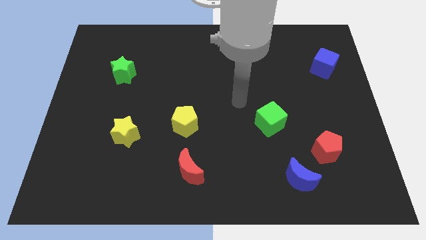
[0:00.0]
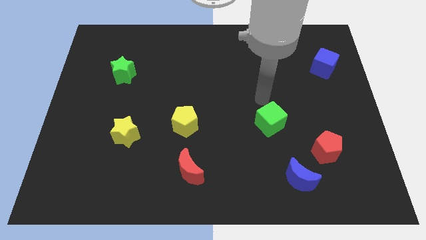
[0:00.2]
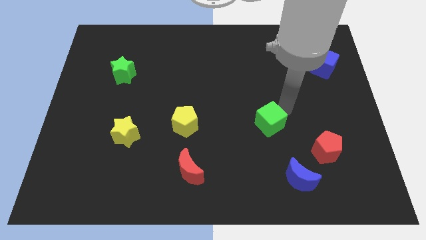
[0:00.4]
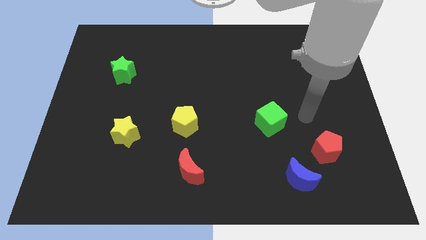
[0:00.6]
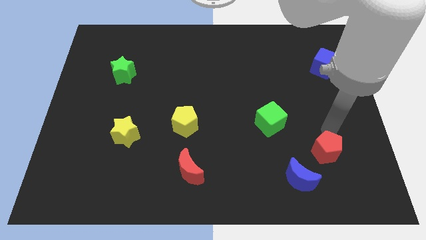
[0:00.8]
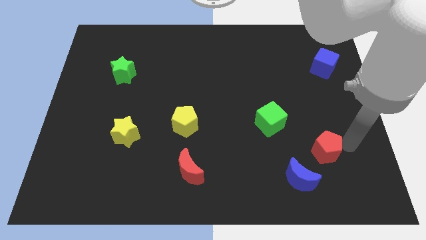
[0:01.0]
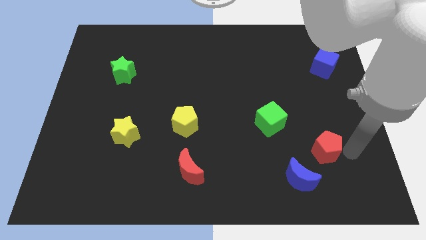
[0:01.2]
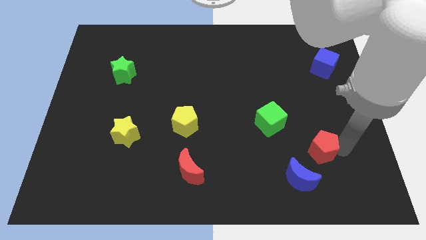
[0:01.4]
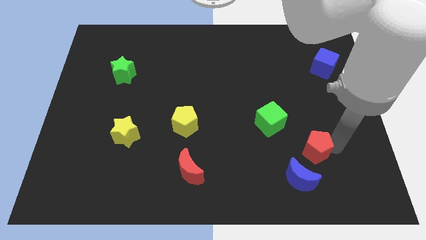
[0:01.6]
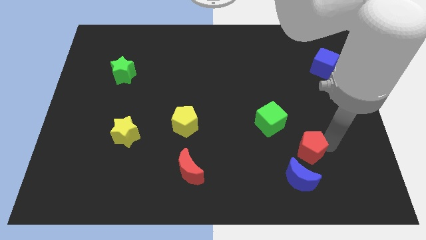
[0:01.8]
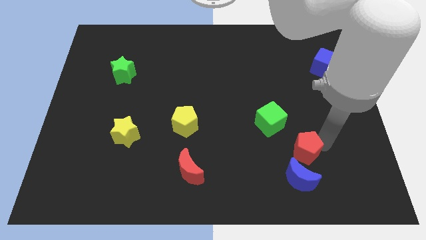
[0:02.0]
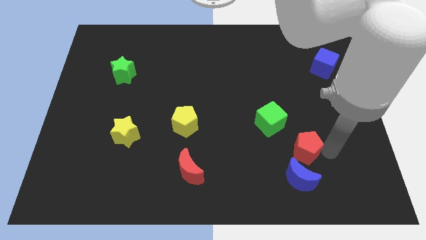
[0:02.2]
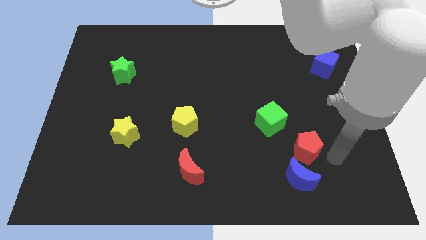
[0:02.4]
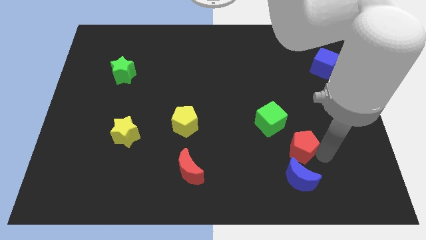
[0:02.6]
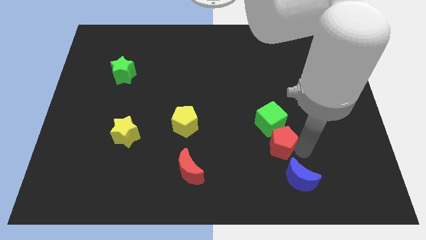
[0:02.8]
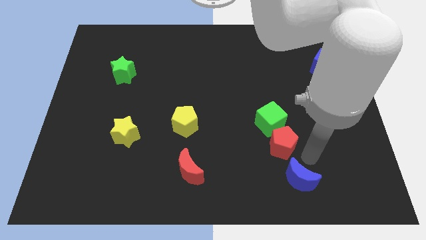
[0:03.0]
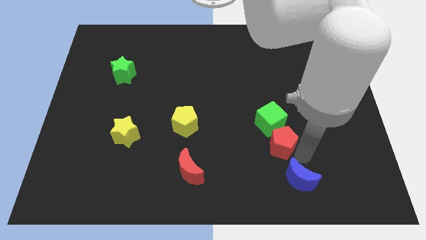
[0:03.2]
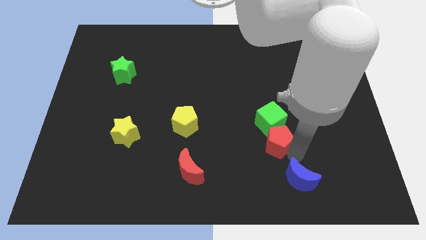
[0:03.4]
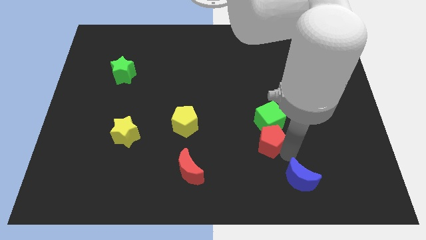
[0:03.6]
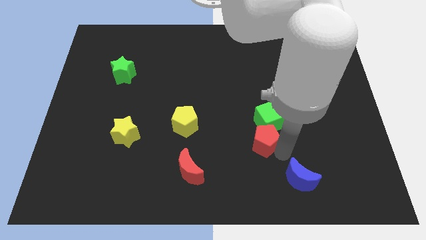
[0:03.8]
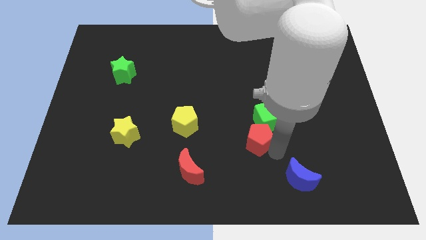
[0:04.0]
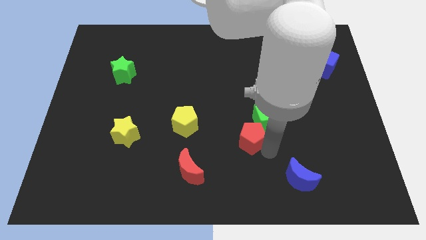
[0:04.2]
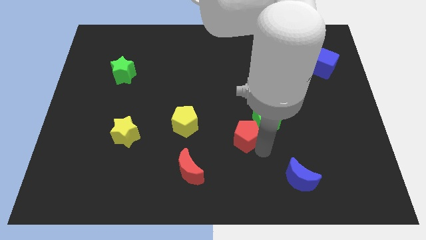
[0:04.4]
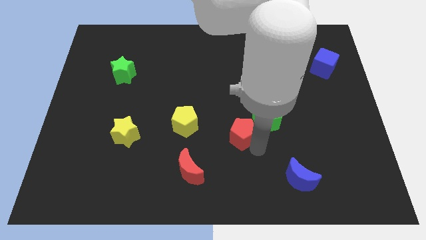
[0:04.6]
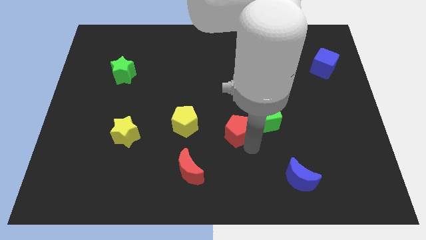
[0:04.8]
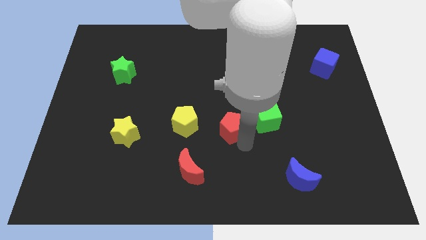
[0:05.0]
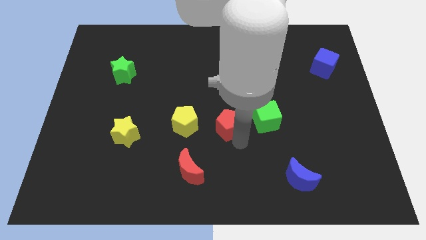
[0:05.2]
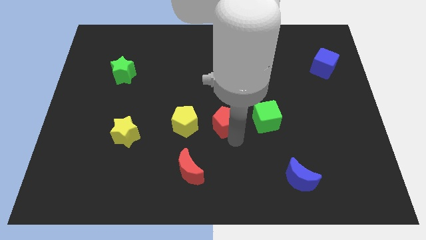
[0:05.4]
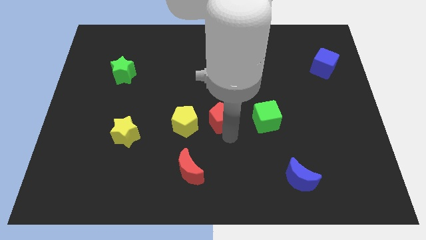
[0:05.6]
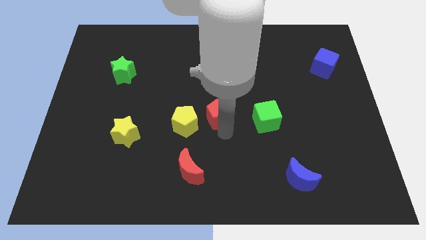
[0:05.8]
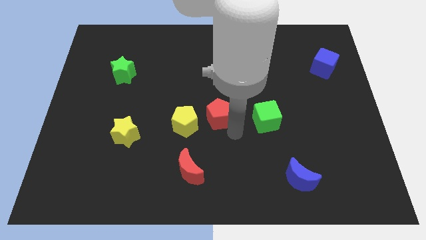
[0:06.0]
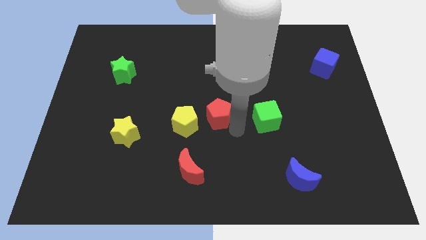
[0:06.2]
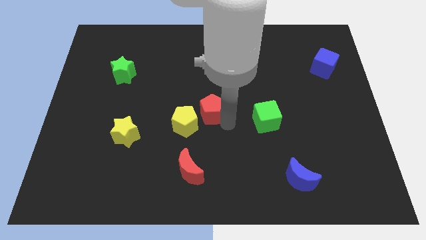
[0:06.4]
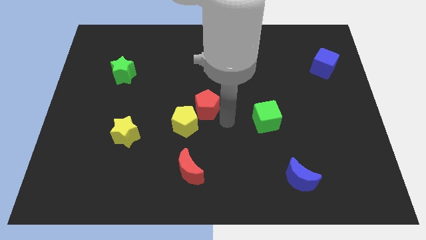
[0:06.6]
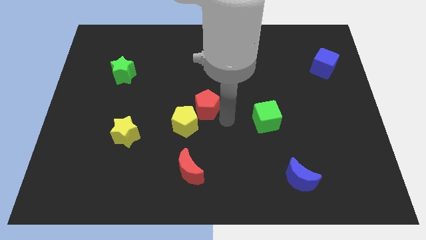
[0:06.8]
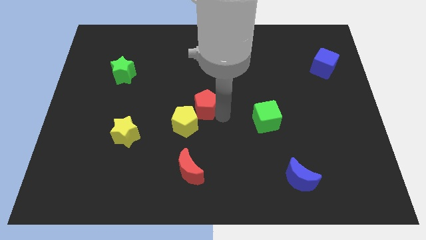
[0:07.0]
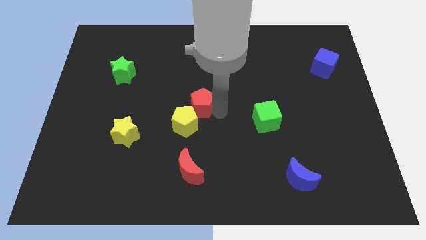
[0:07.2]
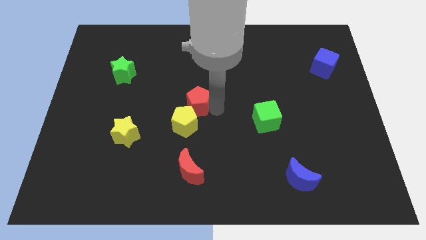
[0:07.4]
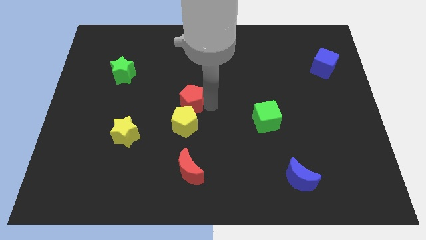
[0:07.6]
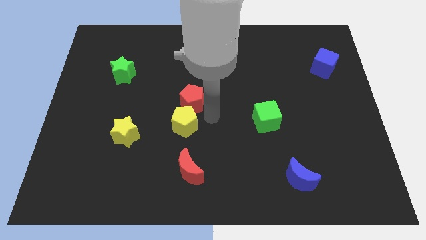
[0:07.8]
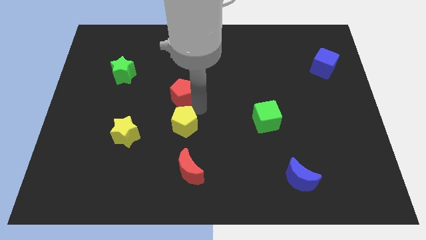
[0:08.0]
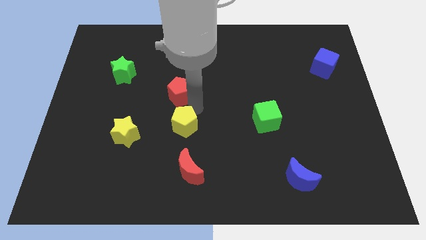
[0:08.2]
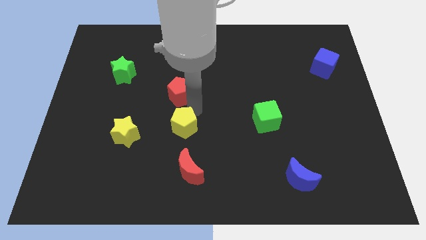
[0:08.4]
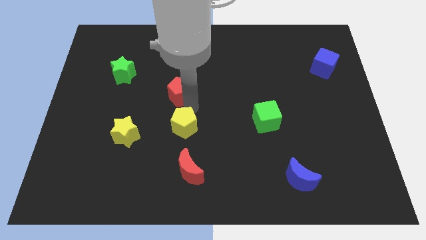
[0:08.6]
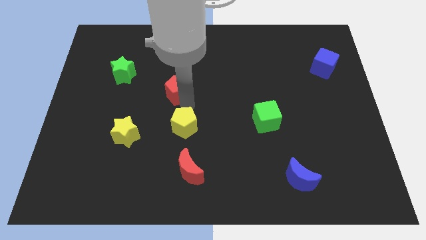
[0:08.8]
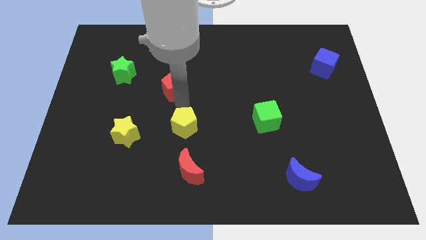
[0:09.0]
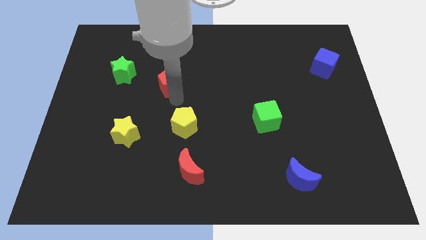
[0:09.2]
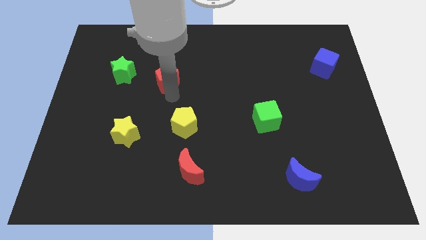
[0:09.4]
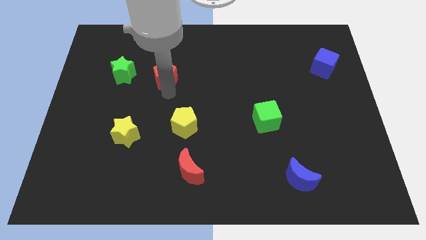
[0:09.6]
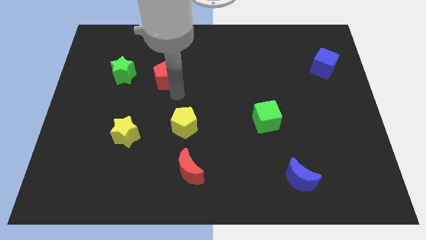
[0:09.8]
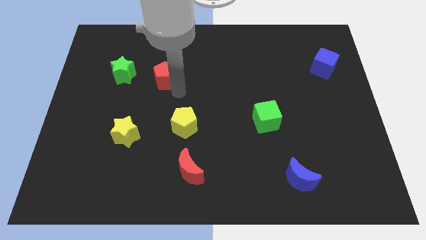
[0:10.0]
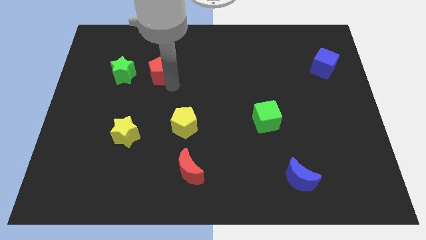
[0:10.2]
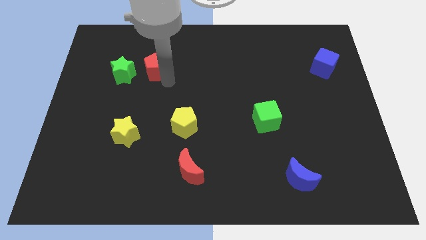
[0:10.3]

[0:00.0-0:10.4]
slide the red pentagon diagonally up and to the right of the green star

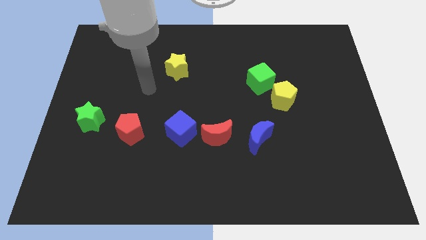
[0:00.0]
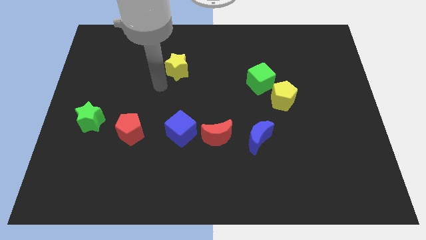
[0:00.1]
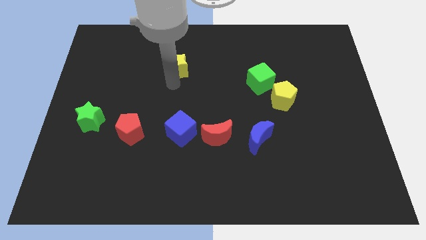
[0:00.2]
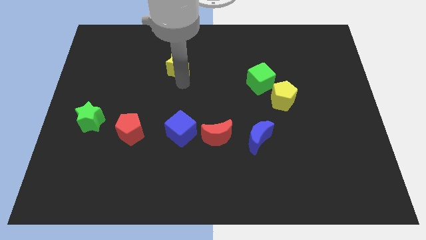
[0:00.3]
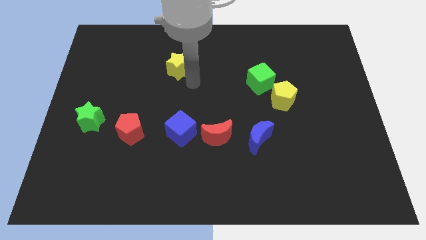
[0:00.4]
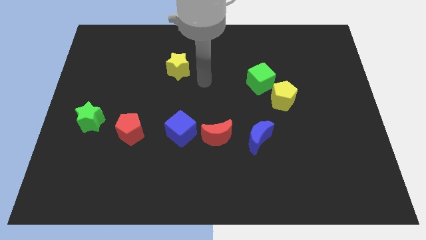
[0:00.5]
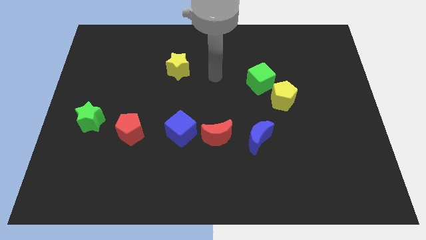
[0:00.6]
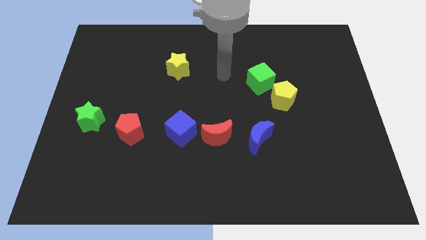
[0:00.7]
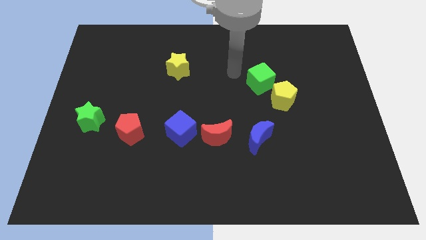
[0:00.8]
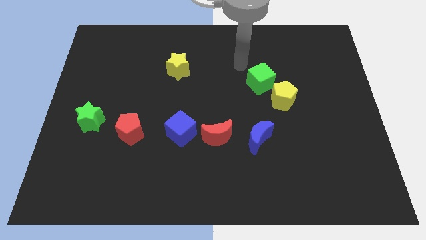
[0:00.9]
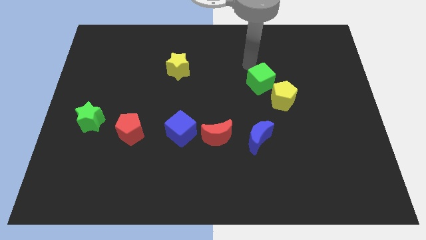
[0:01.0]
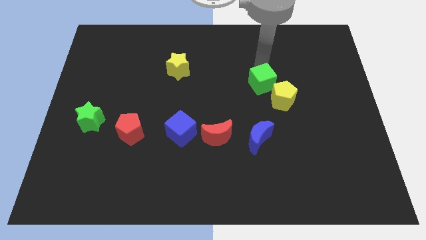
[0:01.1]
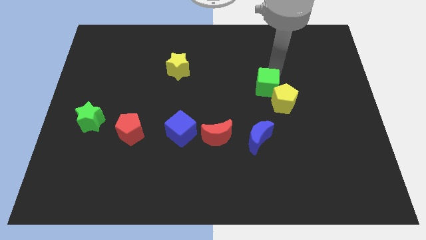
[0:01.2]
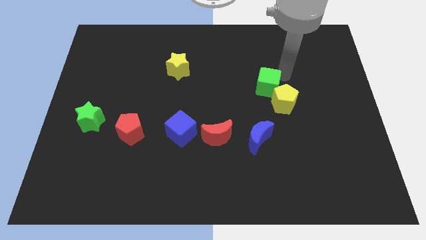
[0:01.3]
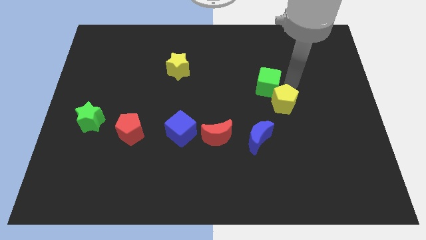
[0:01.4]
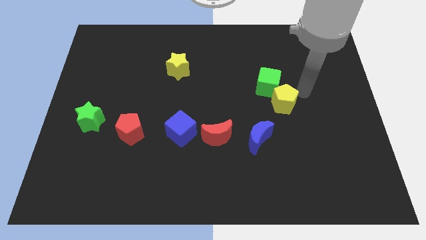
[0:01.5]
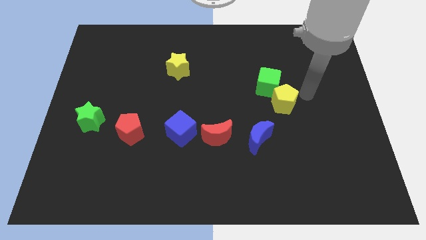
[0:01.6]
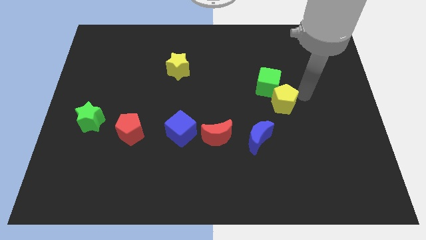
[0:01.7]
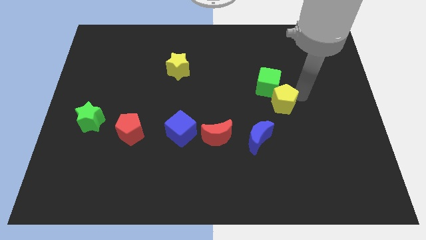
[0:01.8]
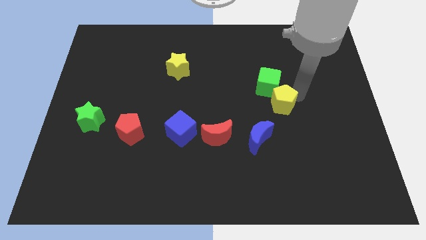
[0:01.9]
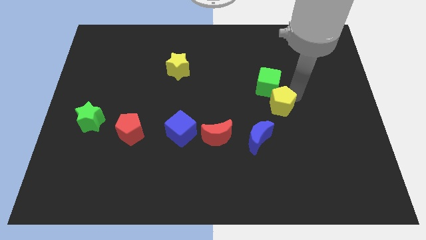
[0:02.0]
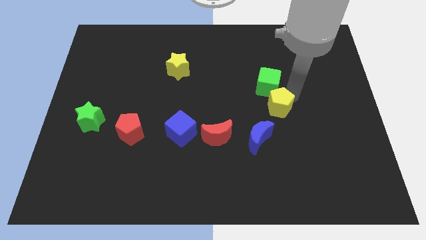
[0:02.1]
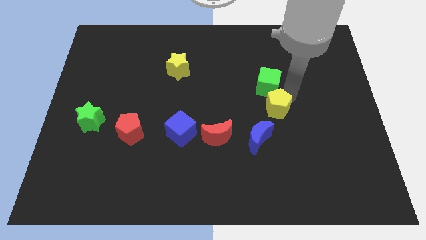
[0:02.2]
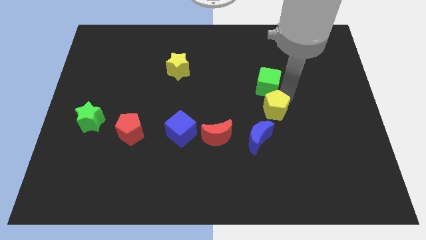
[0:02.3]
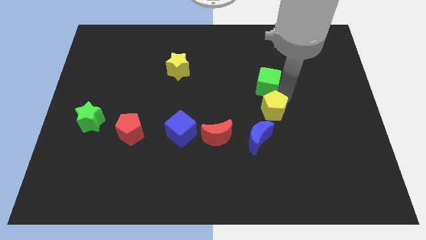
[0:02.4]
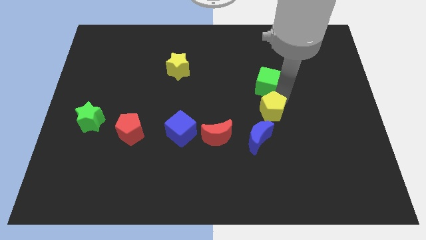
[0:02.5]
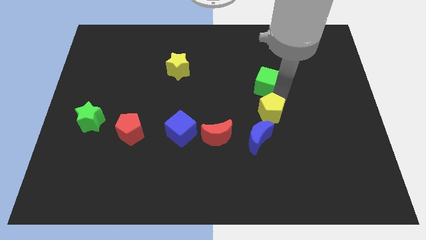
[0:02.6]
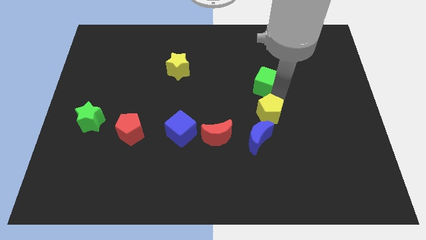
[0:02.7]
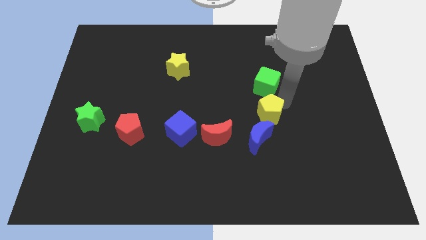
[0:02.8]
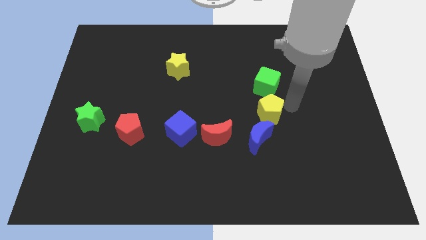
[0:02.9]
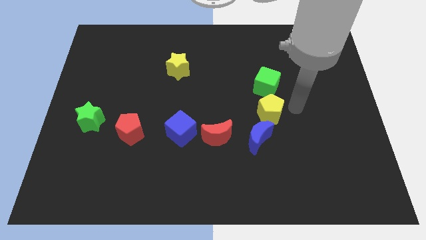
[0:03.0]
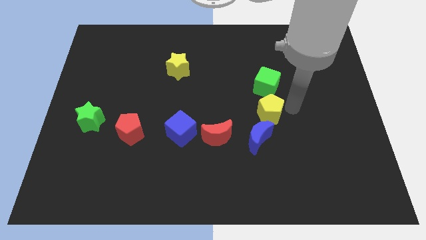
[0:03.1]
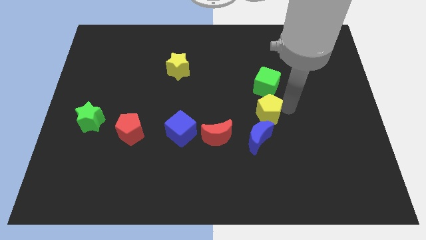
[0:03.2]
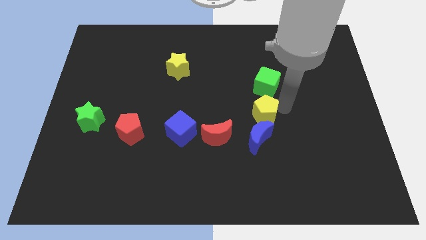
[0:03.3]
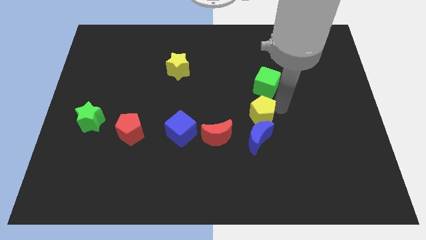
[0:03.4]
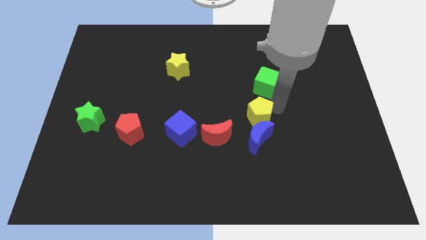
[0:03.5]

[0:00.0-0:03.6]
slide the yellow pentagon to the top left side of the blue moon
